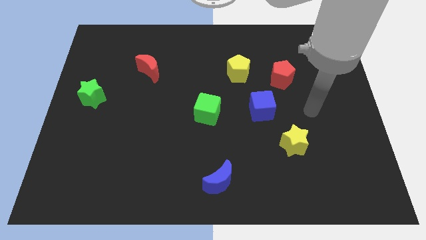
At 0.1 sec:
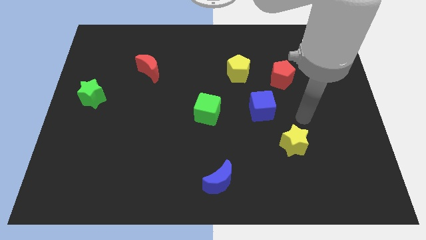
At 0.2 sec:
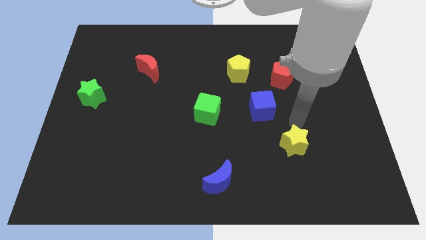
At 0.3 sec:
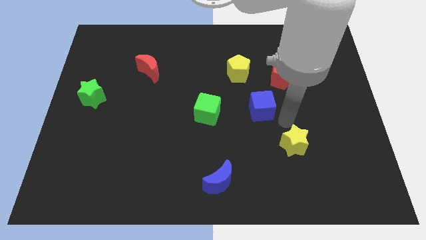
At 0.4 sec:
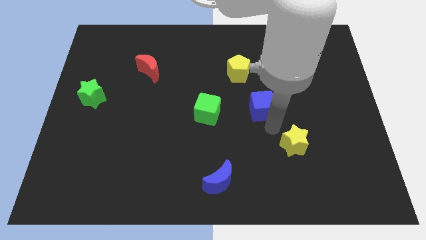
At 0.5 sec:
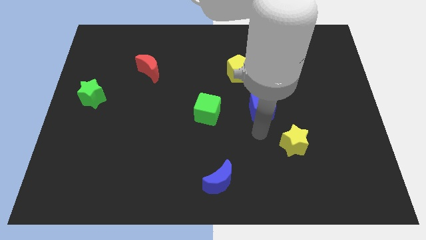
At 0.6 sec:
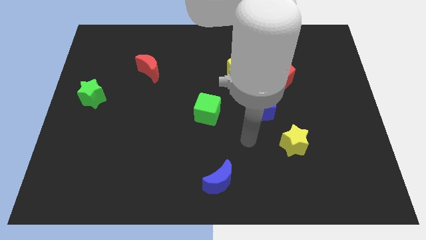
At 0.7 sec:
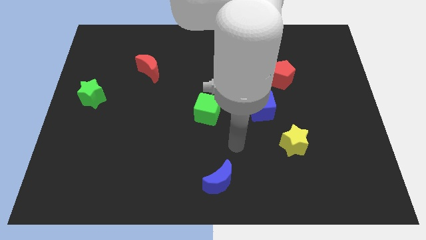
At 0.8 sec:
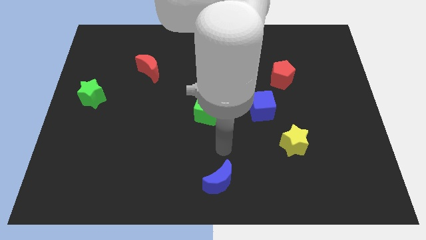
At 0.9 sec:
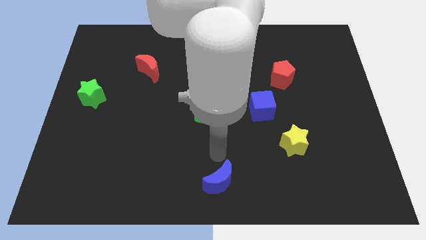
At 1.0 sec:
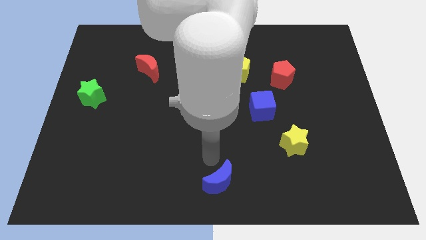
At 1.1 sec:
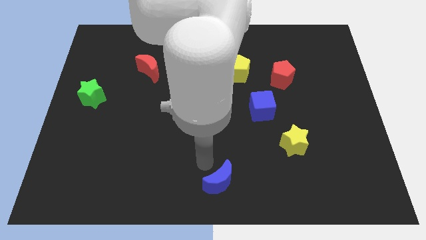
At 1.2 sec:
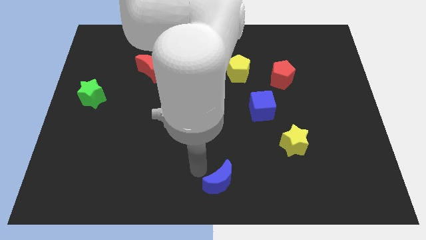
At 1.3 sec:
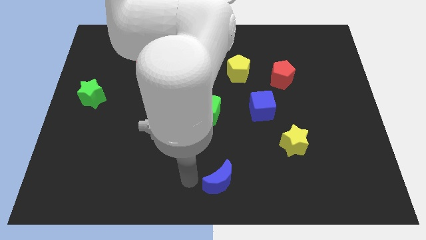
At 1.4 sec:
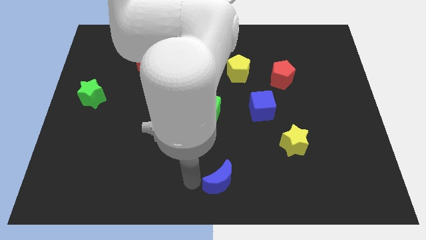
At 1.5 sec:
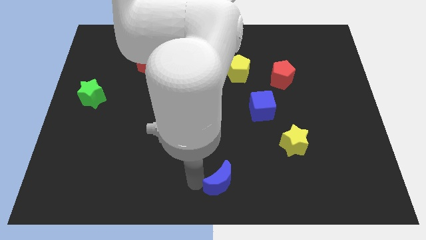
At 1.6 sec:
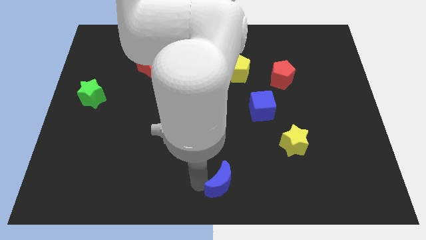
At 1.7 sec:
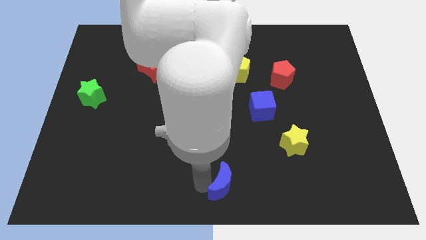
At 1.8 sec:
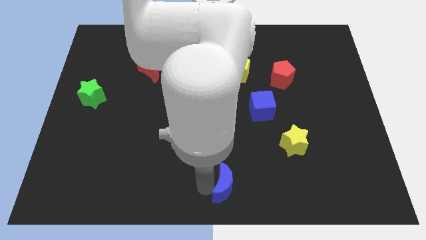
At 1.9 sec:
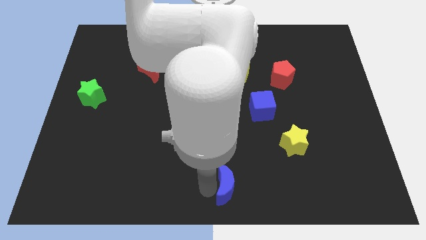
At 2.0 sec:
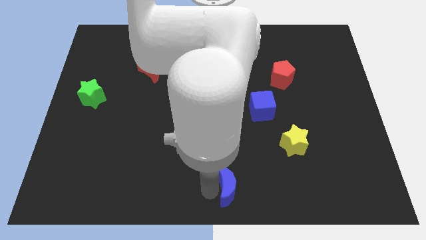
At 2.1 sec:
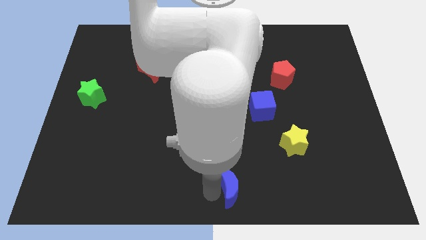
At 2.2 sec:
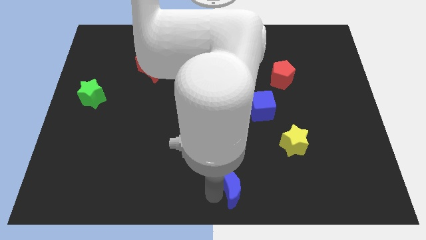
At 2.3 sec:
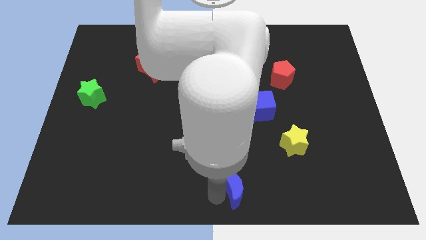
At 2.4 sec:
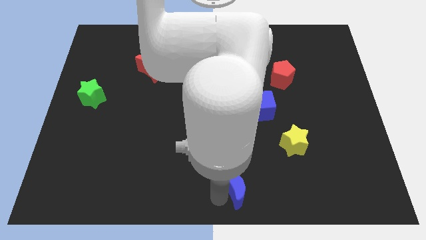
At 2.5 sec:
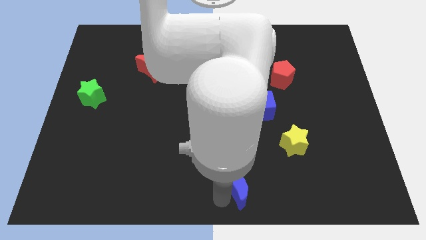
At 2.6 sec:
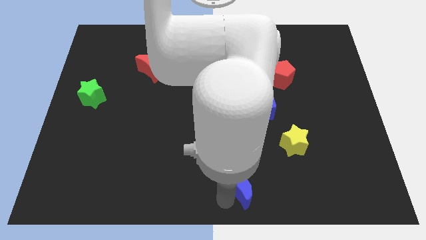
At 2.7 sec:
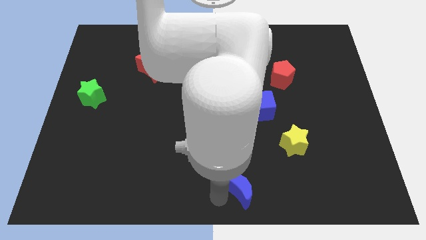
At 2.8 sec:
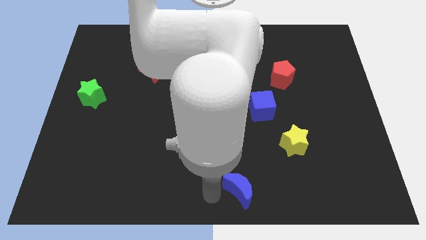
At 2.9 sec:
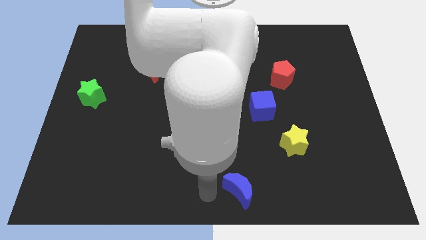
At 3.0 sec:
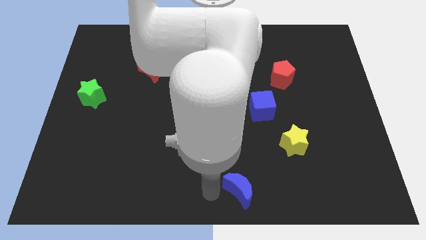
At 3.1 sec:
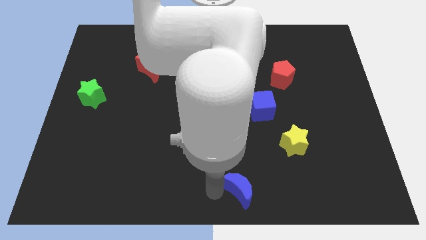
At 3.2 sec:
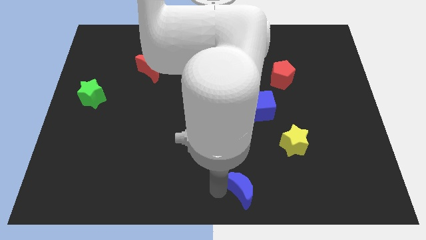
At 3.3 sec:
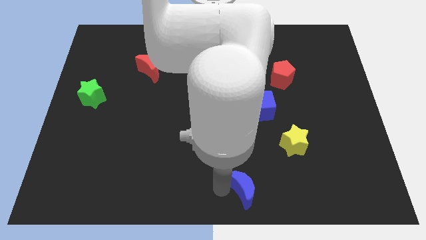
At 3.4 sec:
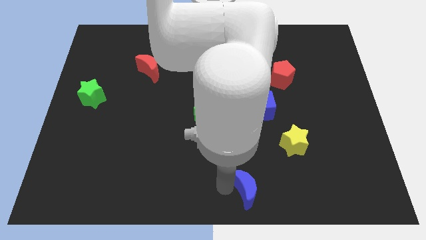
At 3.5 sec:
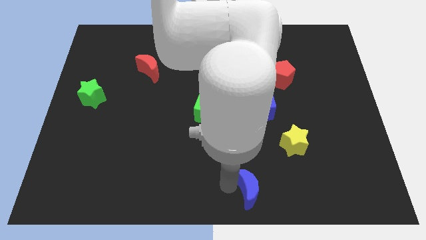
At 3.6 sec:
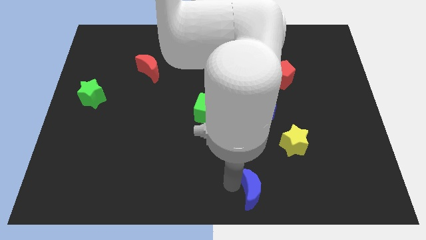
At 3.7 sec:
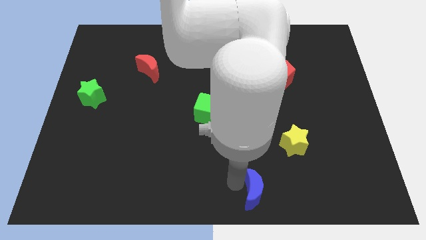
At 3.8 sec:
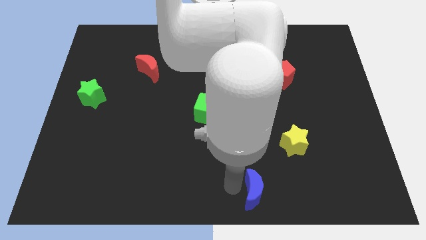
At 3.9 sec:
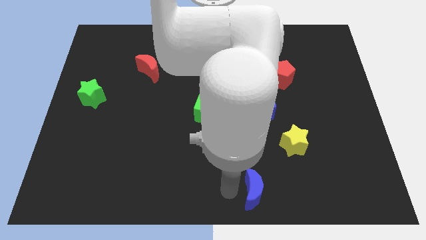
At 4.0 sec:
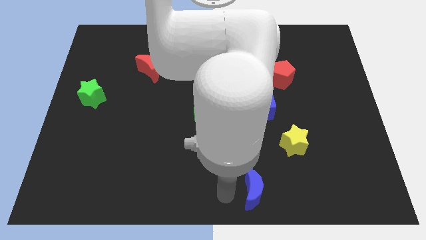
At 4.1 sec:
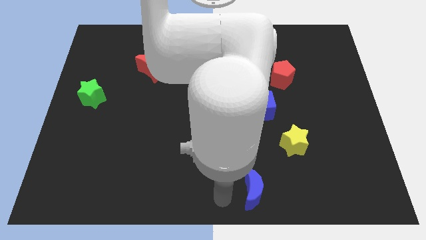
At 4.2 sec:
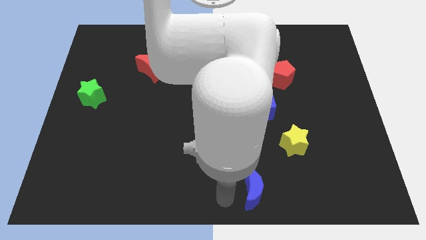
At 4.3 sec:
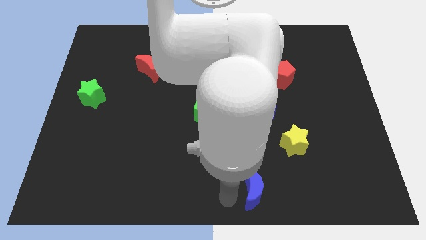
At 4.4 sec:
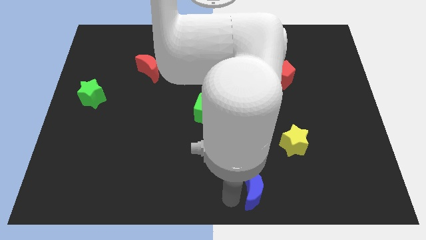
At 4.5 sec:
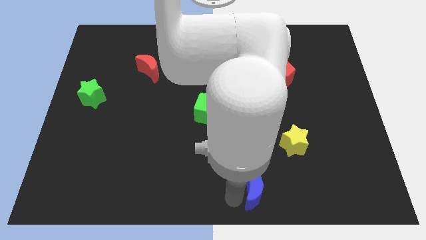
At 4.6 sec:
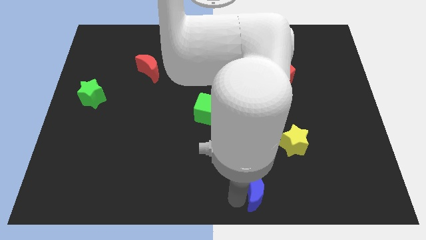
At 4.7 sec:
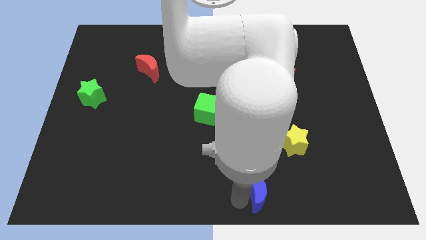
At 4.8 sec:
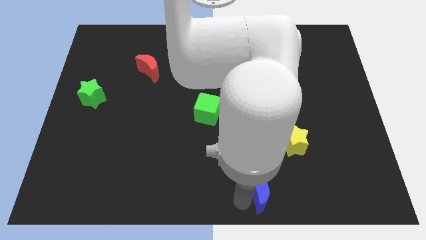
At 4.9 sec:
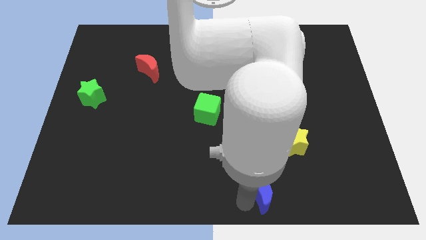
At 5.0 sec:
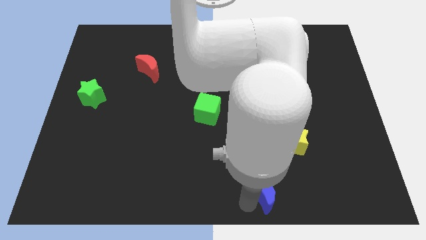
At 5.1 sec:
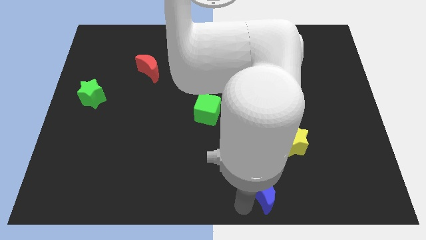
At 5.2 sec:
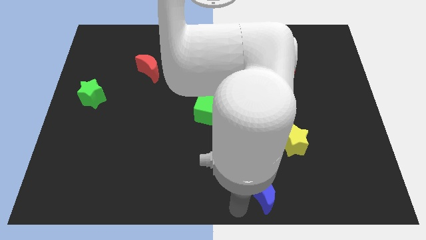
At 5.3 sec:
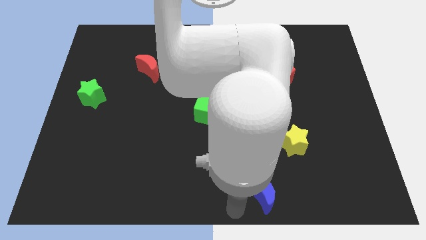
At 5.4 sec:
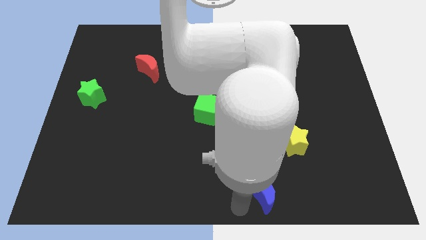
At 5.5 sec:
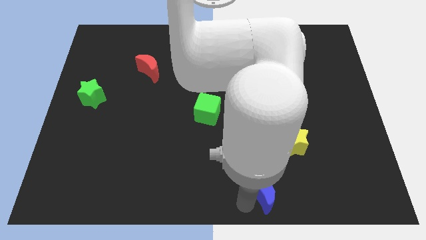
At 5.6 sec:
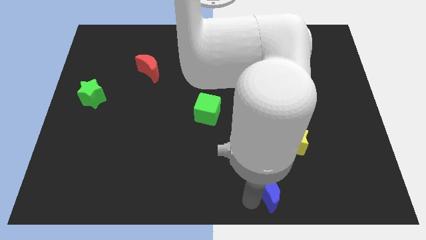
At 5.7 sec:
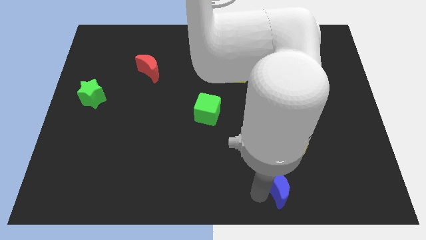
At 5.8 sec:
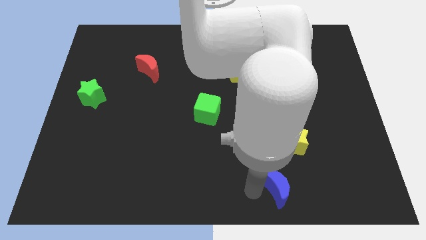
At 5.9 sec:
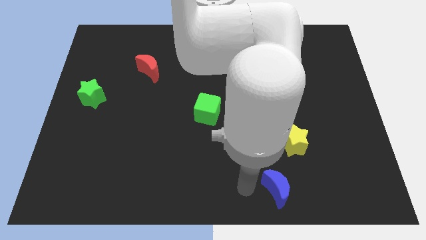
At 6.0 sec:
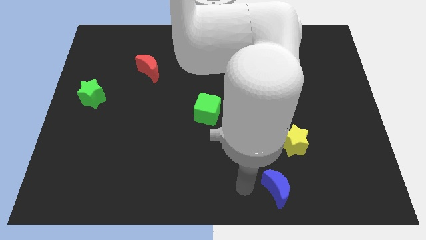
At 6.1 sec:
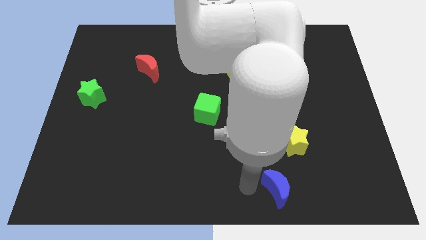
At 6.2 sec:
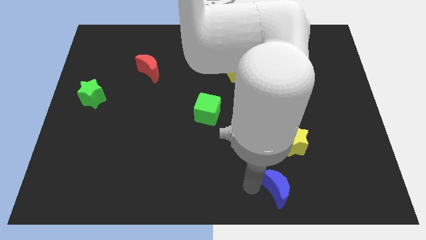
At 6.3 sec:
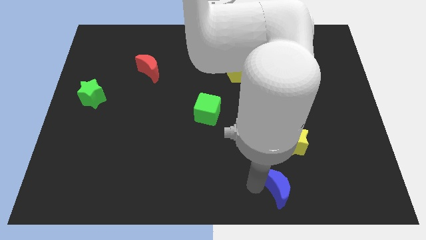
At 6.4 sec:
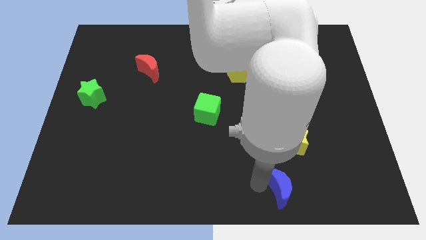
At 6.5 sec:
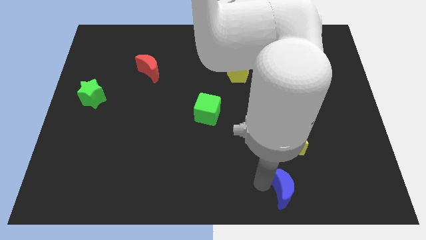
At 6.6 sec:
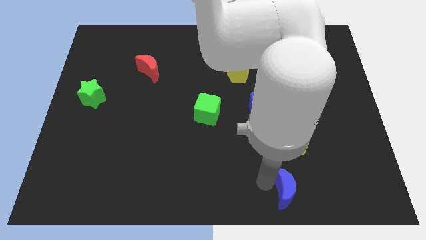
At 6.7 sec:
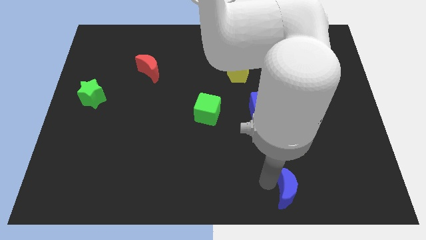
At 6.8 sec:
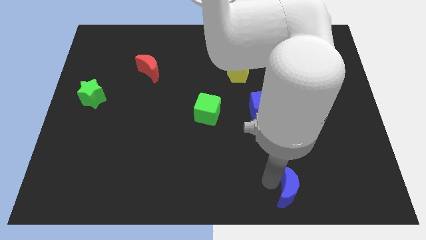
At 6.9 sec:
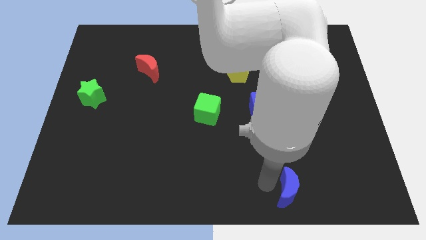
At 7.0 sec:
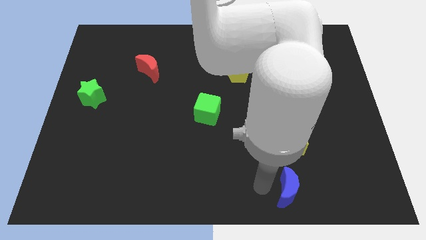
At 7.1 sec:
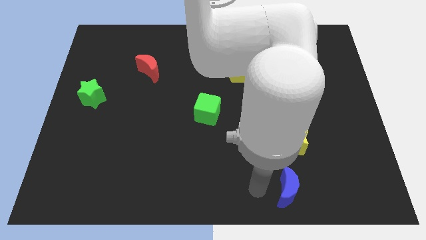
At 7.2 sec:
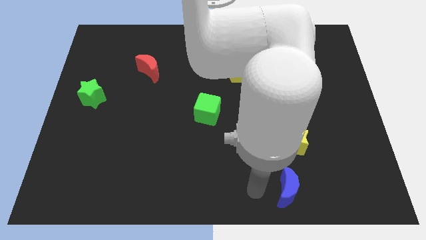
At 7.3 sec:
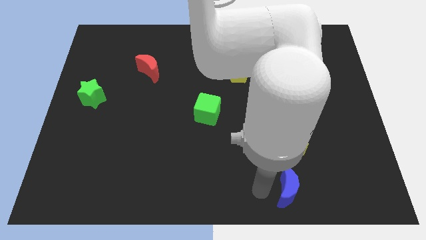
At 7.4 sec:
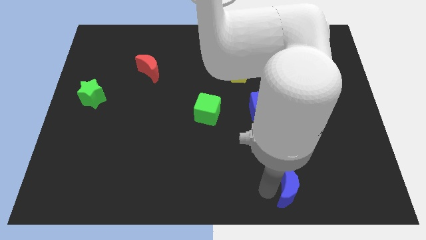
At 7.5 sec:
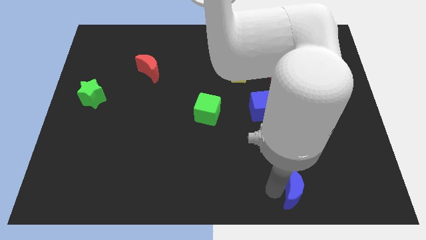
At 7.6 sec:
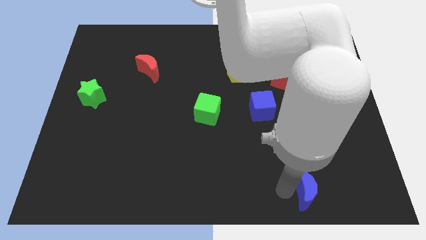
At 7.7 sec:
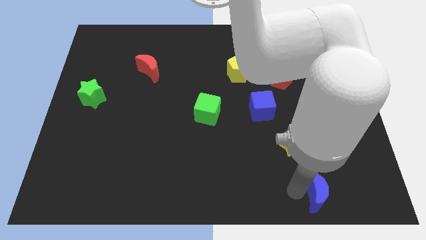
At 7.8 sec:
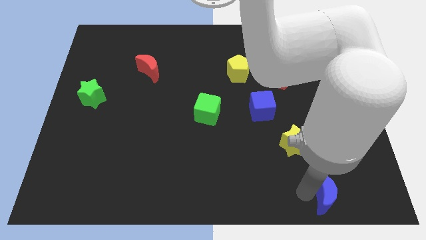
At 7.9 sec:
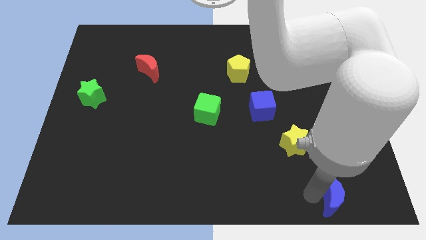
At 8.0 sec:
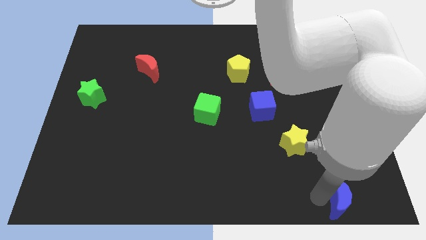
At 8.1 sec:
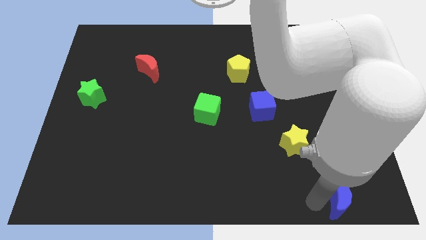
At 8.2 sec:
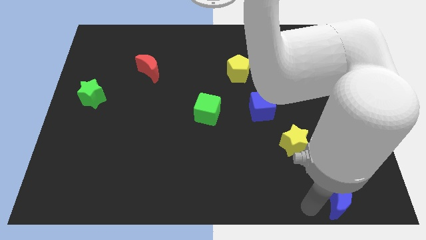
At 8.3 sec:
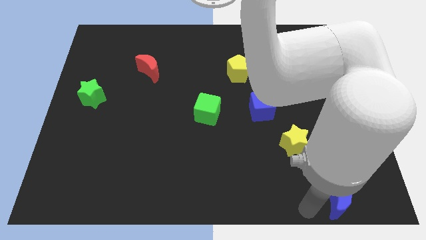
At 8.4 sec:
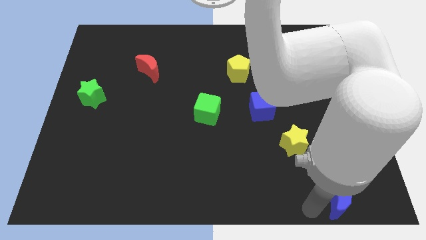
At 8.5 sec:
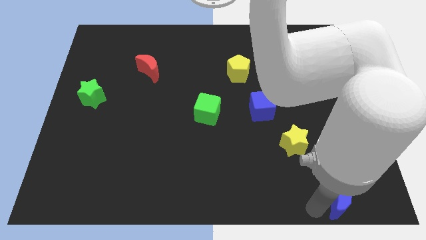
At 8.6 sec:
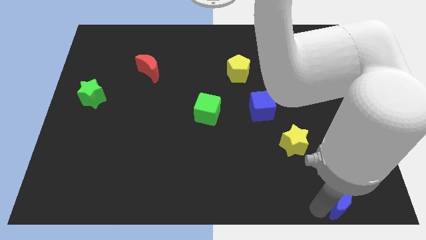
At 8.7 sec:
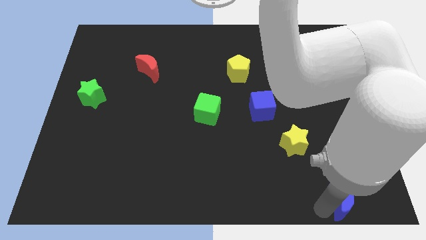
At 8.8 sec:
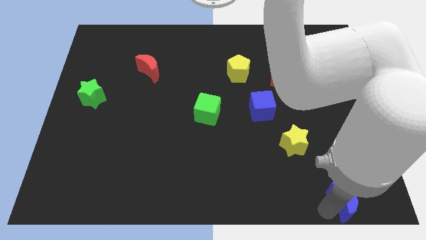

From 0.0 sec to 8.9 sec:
slide the blue moon to the bottom right of the board
